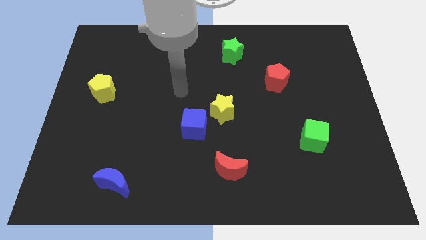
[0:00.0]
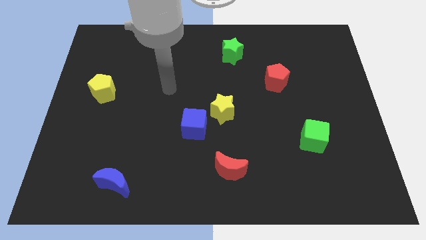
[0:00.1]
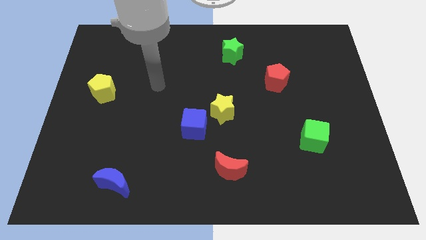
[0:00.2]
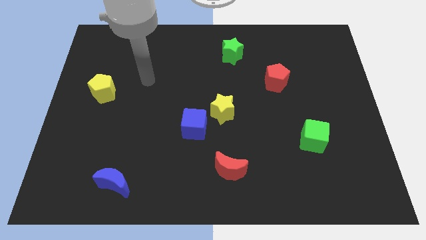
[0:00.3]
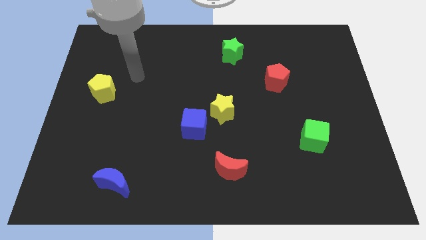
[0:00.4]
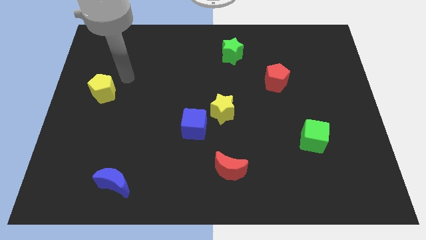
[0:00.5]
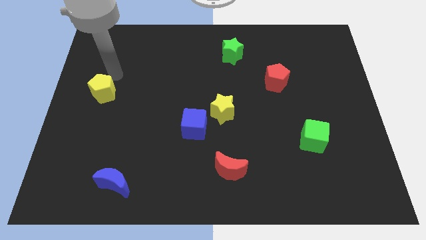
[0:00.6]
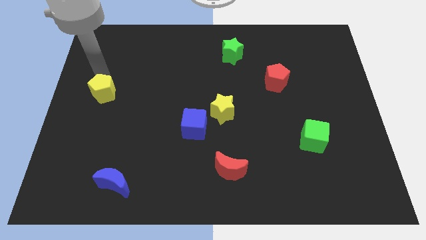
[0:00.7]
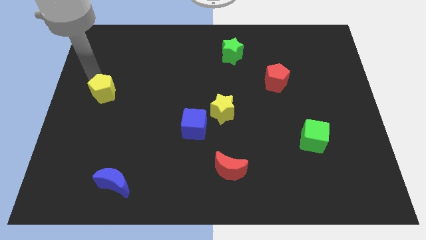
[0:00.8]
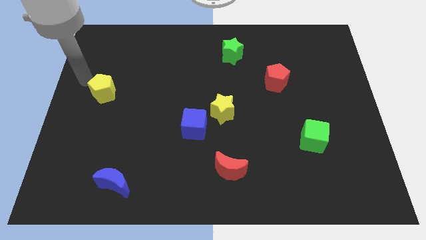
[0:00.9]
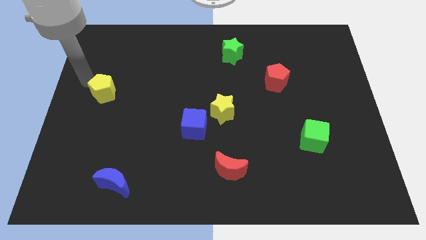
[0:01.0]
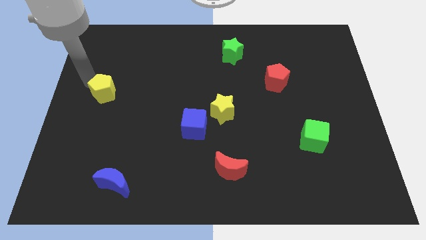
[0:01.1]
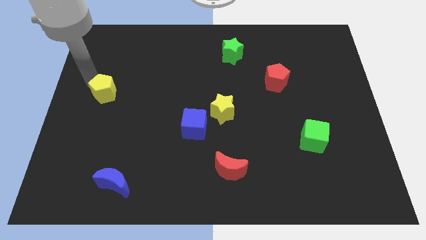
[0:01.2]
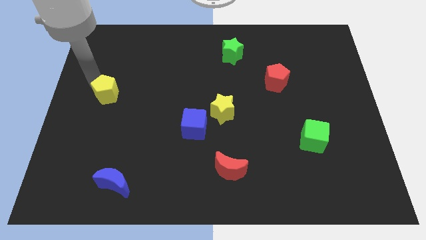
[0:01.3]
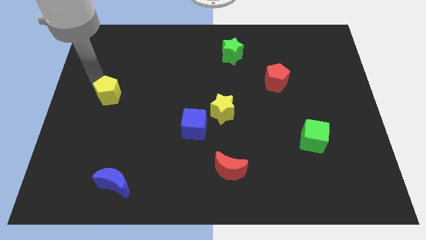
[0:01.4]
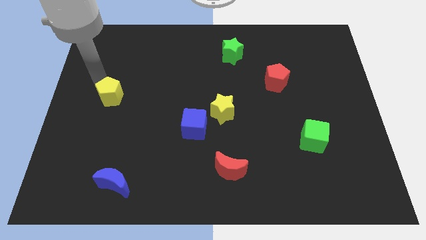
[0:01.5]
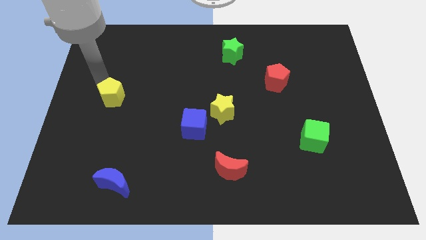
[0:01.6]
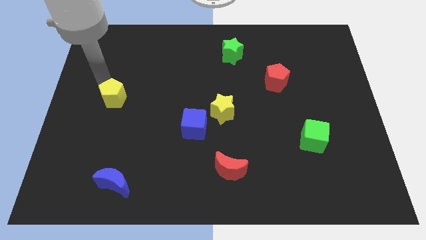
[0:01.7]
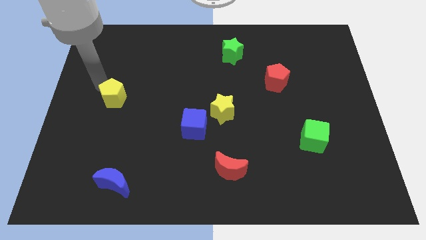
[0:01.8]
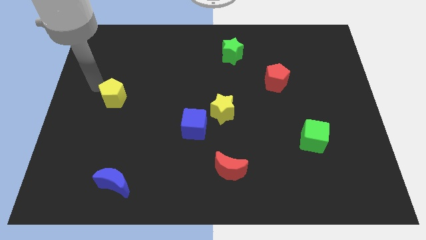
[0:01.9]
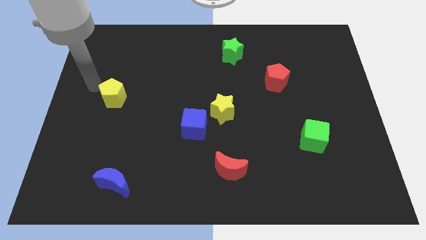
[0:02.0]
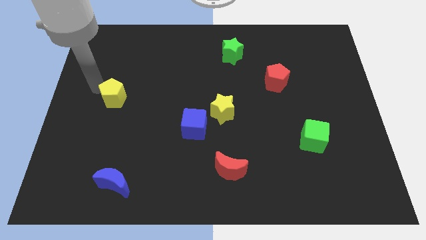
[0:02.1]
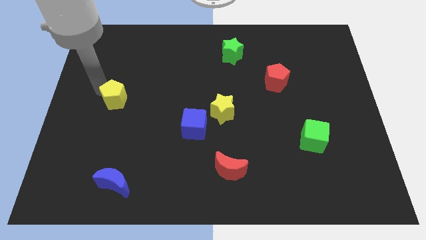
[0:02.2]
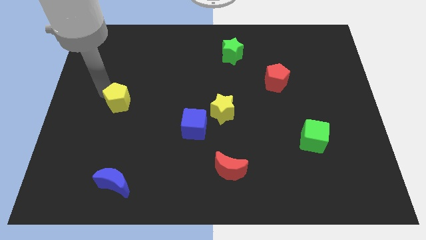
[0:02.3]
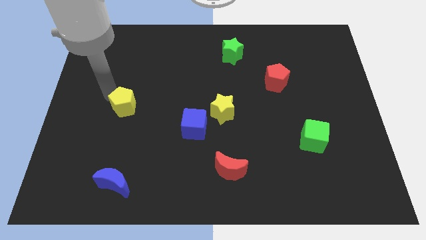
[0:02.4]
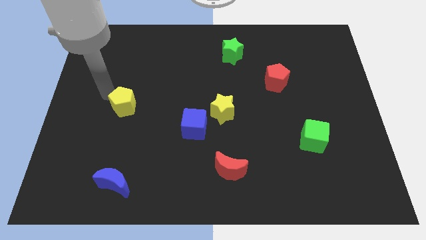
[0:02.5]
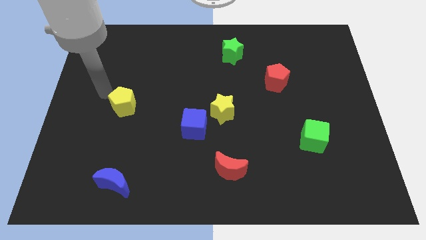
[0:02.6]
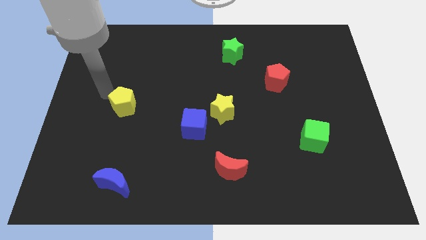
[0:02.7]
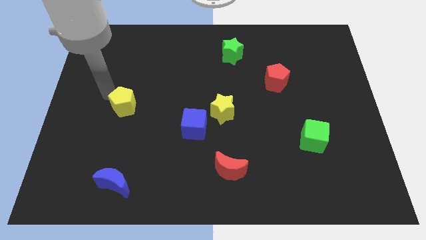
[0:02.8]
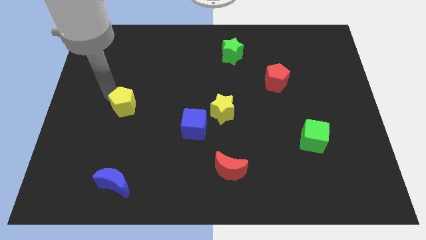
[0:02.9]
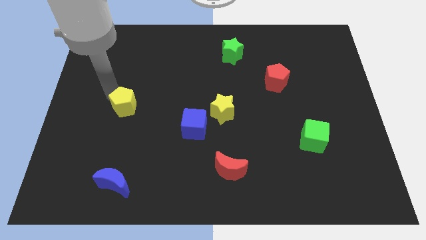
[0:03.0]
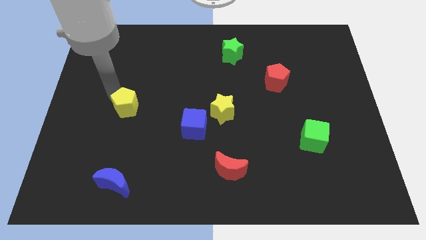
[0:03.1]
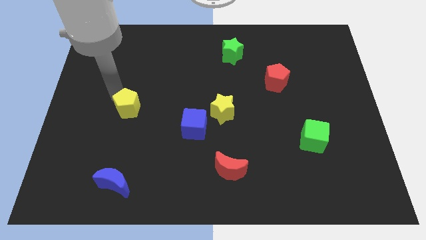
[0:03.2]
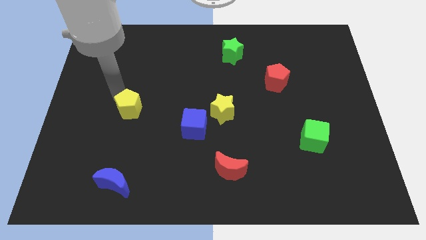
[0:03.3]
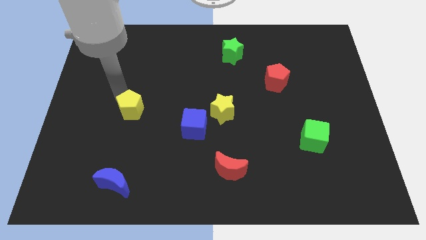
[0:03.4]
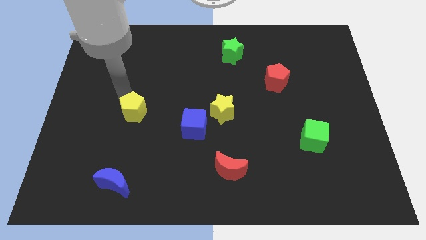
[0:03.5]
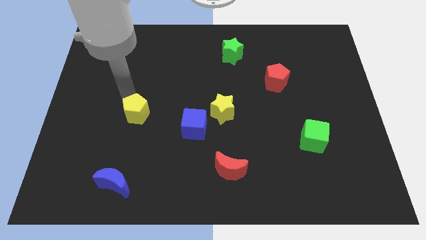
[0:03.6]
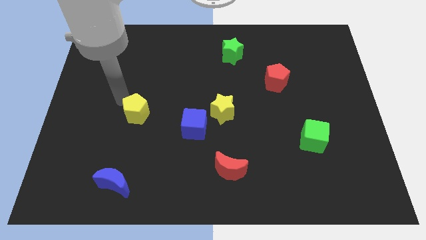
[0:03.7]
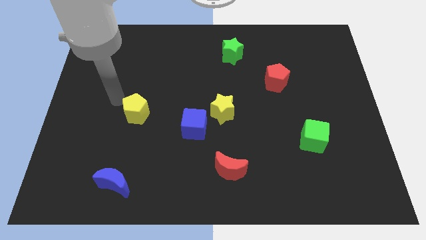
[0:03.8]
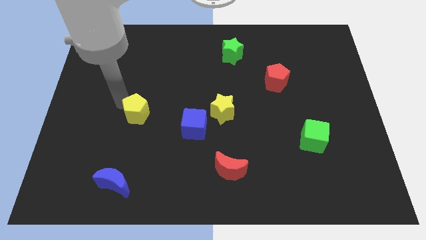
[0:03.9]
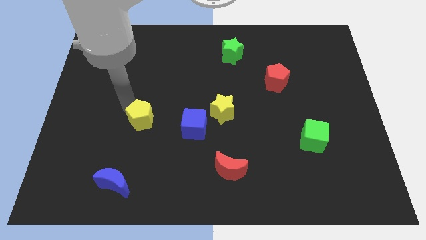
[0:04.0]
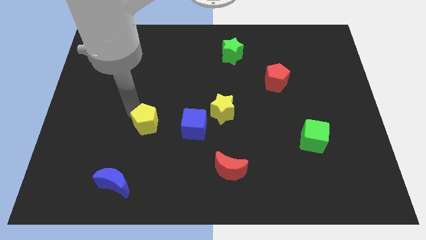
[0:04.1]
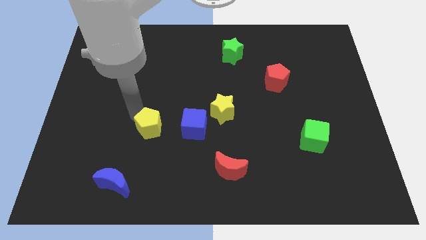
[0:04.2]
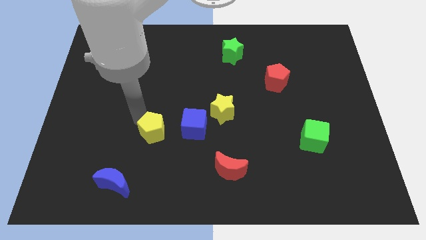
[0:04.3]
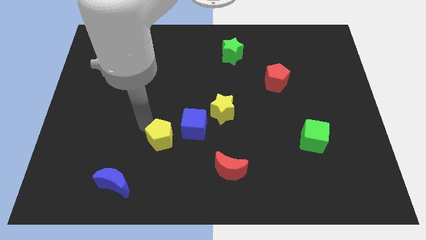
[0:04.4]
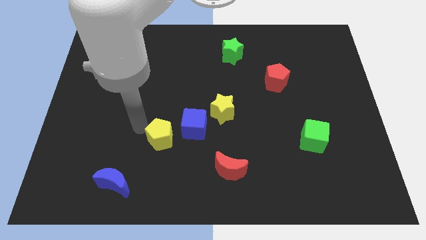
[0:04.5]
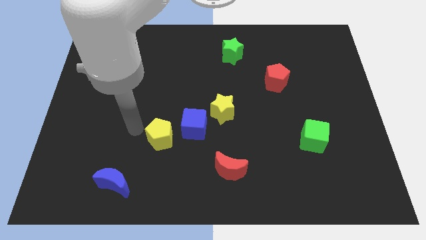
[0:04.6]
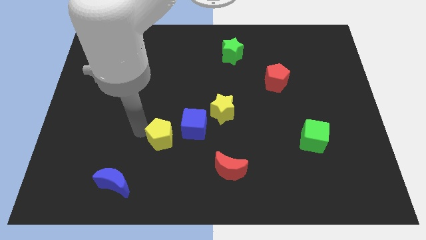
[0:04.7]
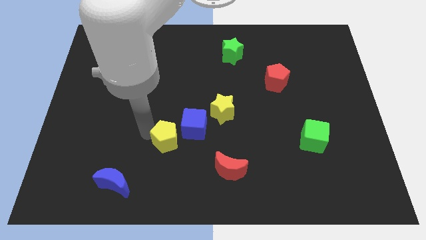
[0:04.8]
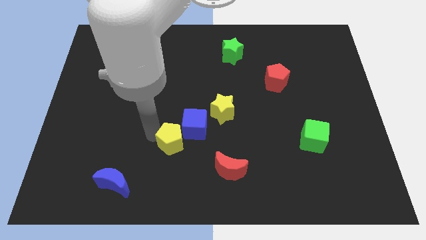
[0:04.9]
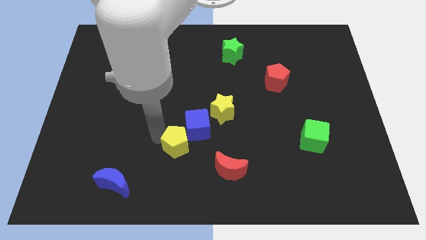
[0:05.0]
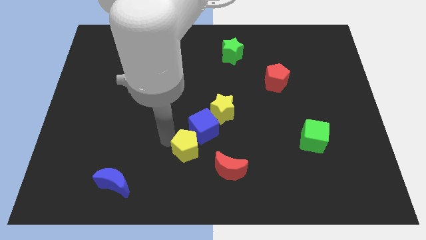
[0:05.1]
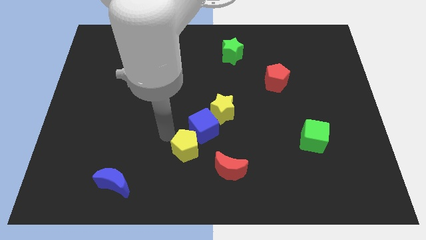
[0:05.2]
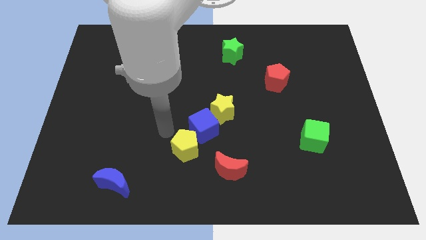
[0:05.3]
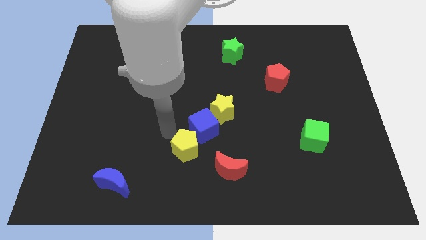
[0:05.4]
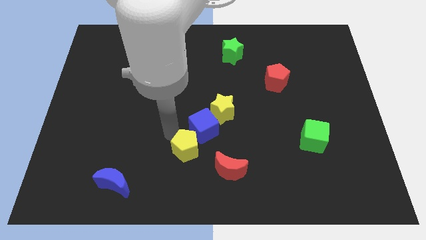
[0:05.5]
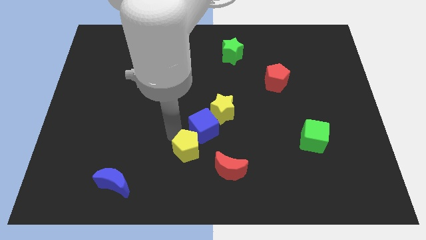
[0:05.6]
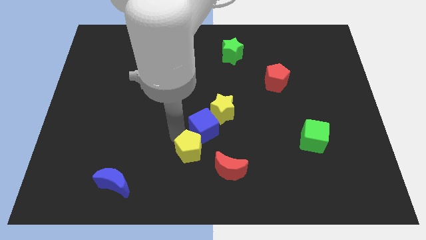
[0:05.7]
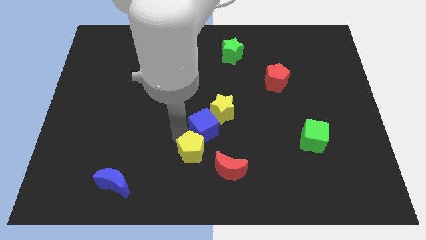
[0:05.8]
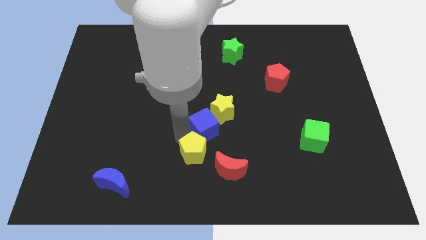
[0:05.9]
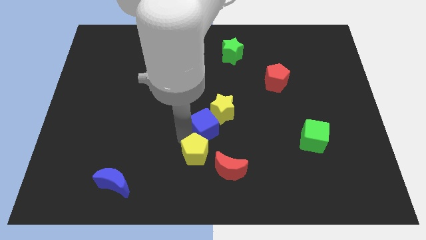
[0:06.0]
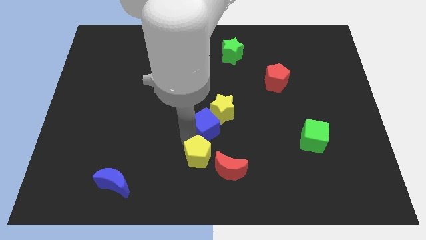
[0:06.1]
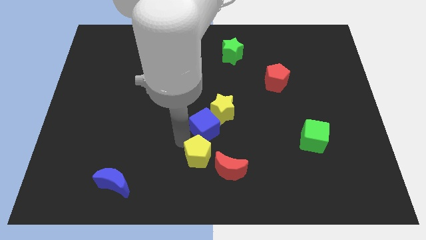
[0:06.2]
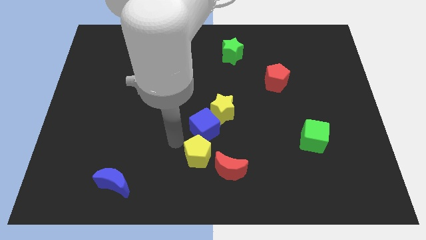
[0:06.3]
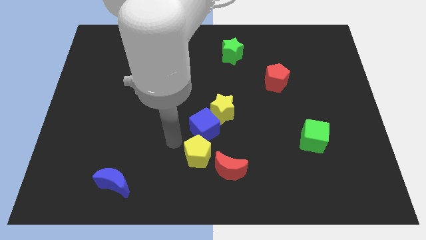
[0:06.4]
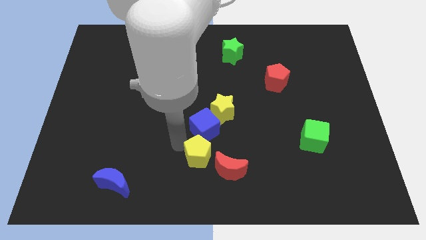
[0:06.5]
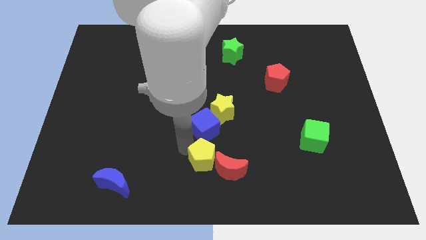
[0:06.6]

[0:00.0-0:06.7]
move the yellow pentagon close to the red moon
